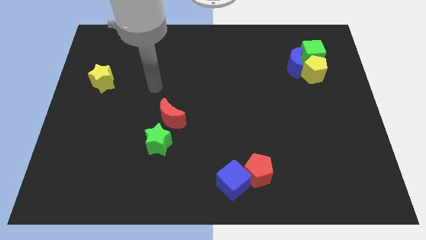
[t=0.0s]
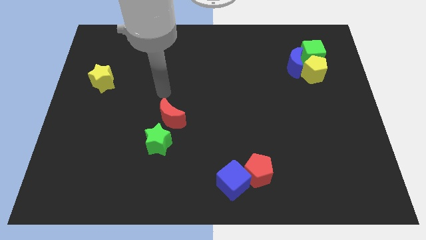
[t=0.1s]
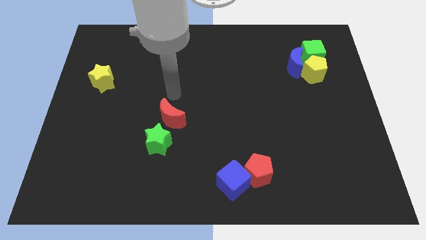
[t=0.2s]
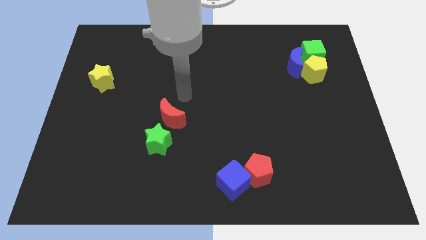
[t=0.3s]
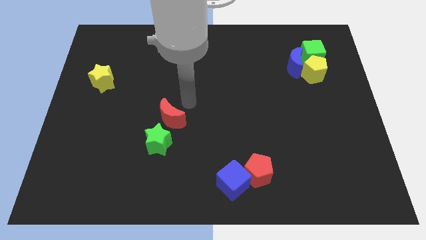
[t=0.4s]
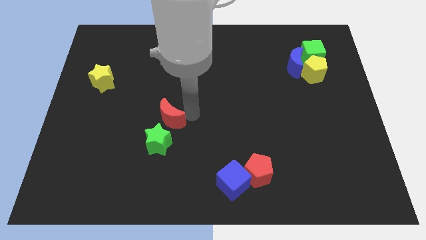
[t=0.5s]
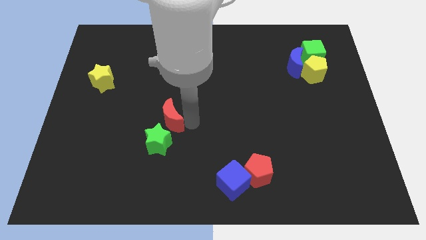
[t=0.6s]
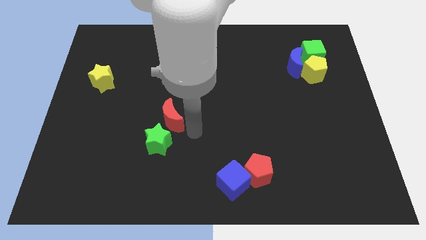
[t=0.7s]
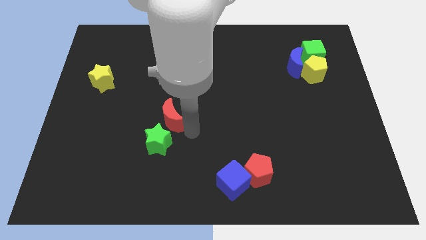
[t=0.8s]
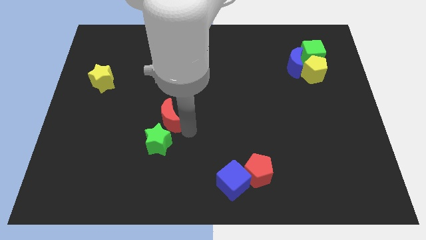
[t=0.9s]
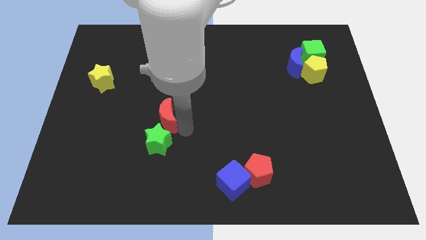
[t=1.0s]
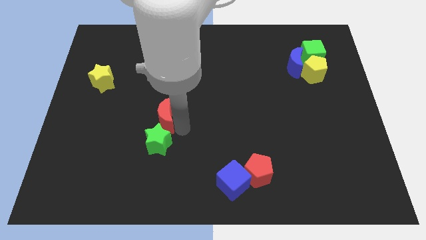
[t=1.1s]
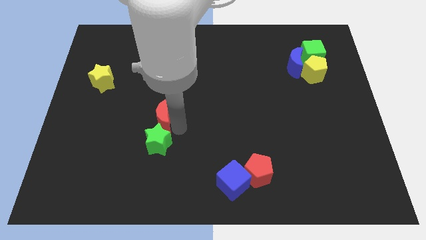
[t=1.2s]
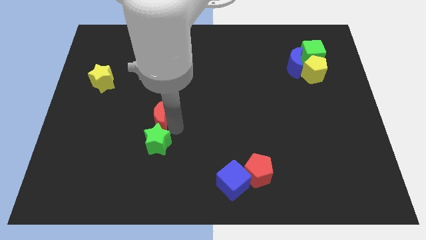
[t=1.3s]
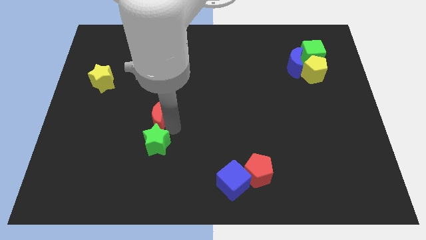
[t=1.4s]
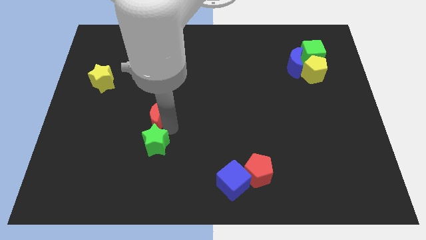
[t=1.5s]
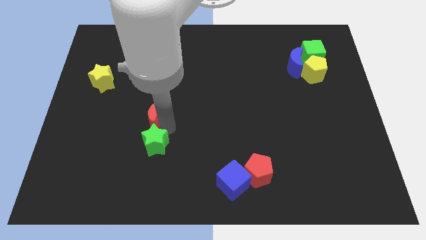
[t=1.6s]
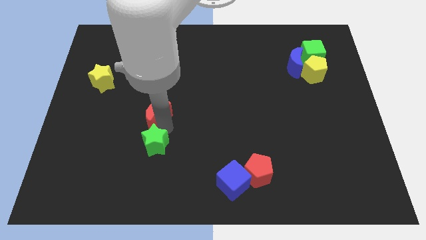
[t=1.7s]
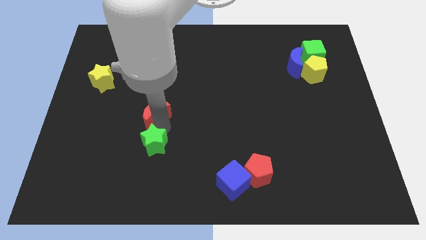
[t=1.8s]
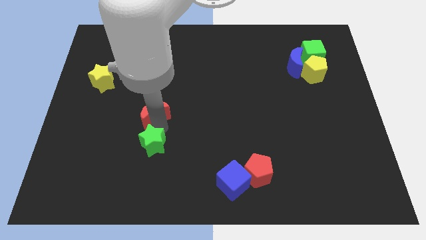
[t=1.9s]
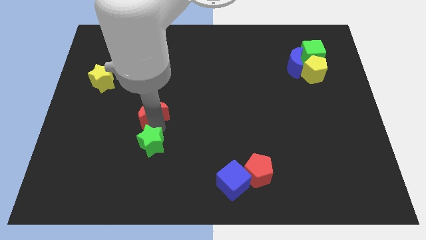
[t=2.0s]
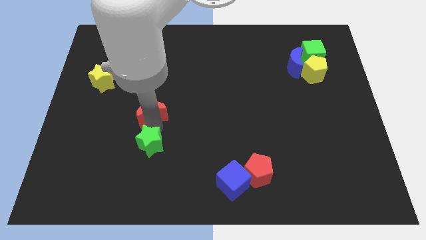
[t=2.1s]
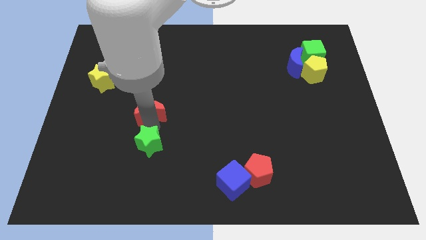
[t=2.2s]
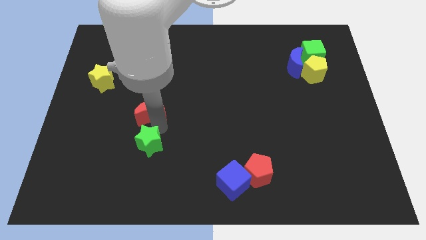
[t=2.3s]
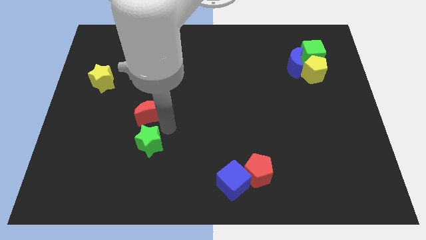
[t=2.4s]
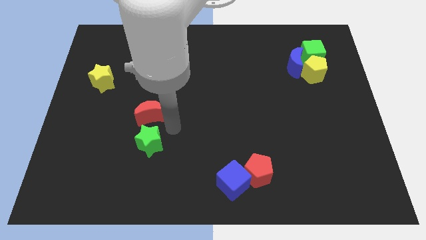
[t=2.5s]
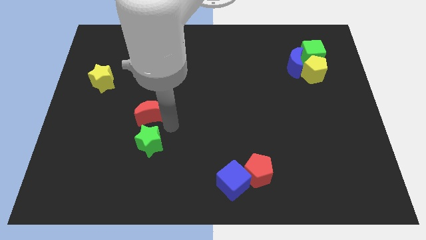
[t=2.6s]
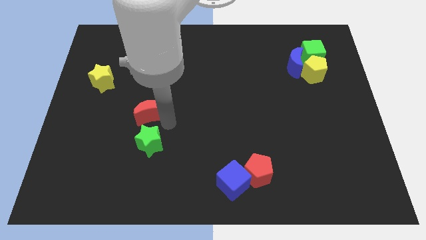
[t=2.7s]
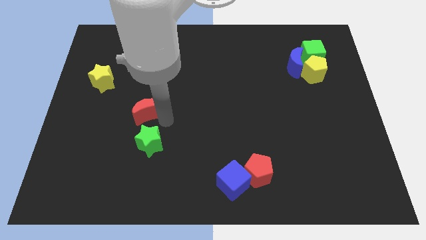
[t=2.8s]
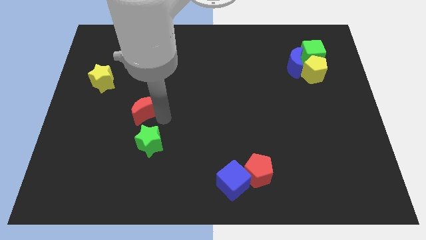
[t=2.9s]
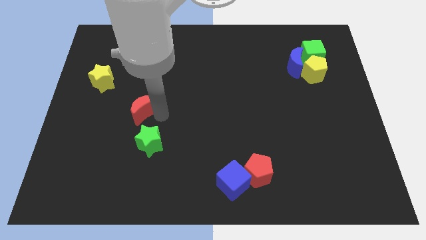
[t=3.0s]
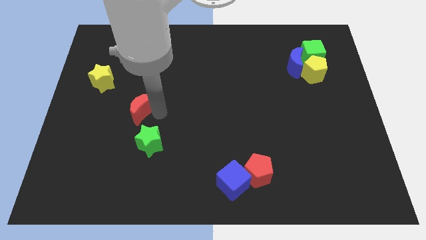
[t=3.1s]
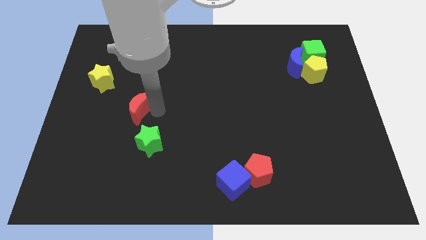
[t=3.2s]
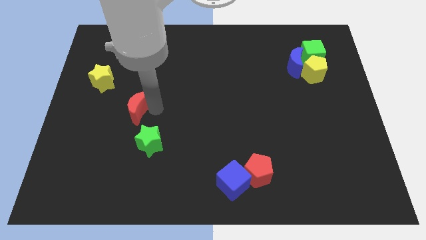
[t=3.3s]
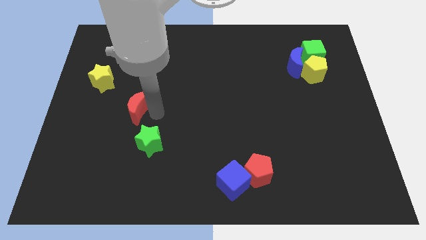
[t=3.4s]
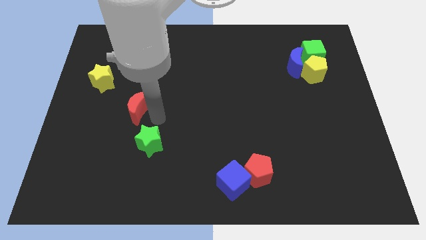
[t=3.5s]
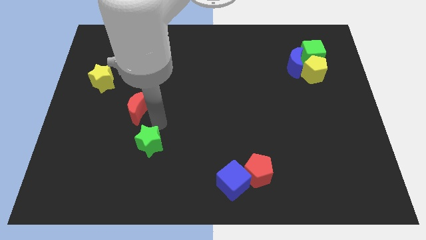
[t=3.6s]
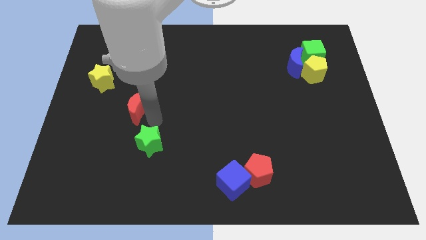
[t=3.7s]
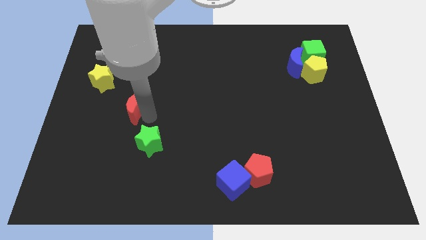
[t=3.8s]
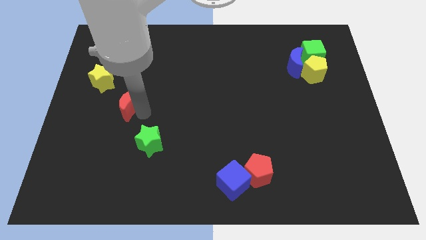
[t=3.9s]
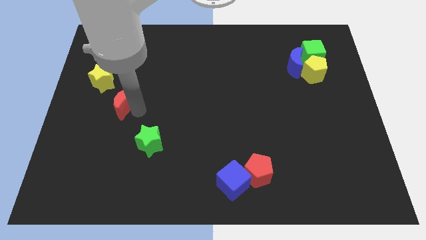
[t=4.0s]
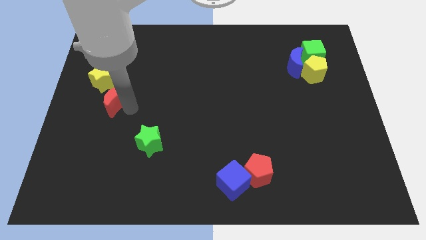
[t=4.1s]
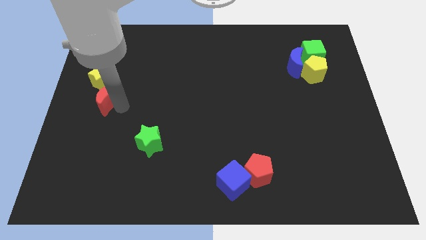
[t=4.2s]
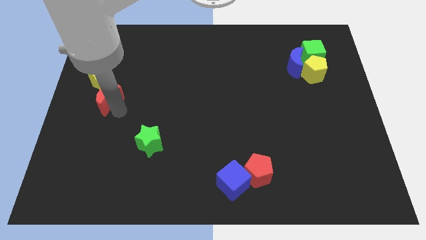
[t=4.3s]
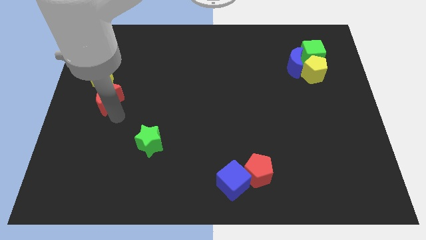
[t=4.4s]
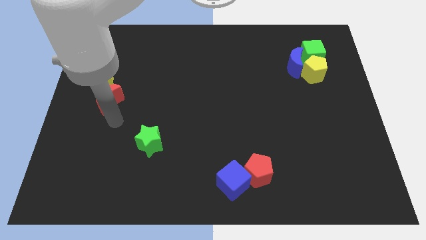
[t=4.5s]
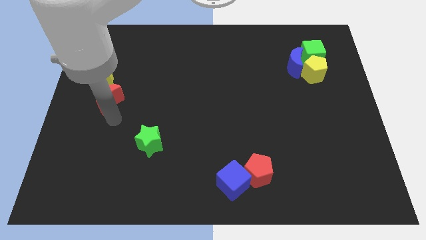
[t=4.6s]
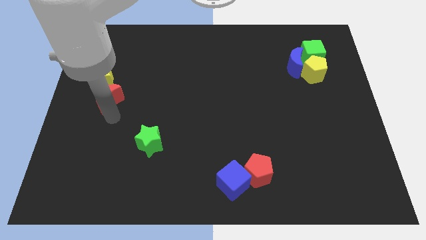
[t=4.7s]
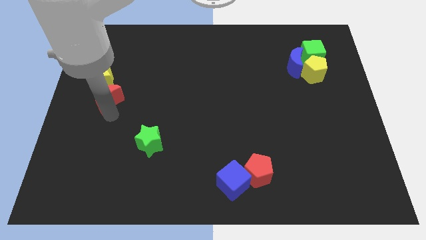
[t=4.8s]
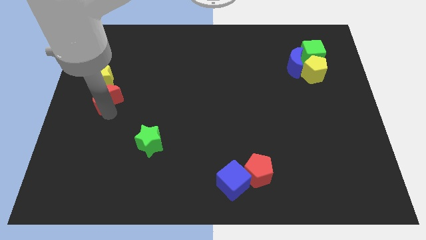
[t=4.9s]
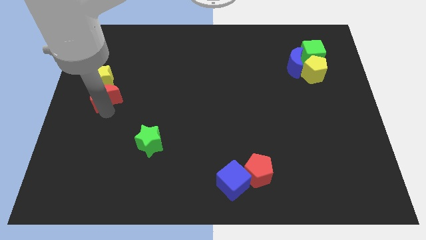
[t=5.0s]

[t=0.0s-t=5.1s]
push the red moon close to the yellow star

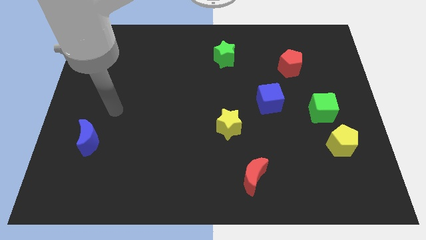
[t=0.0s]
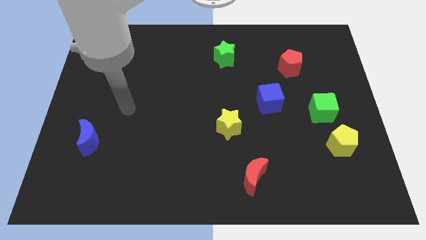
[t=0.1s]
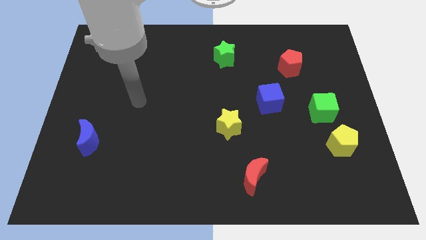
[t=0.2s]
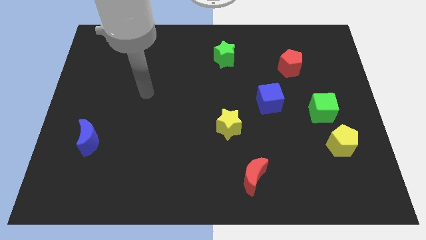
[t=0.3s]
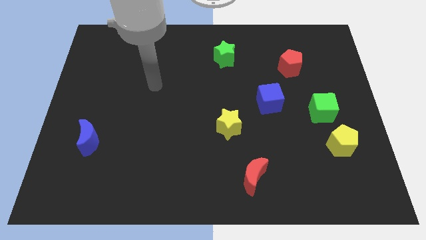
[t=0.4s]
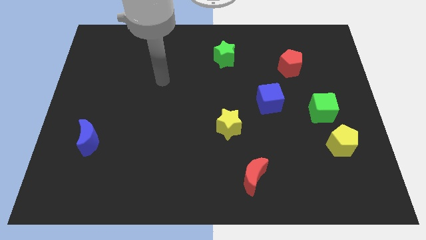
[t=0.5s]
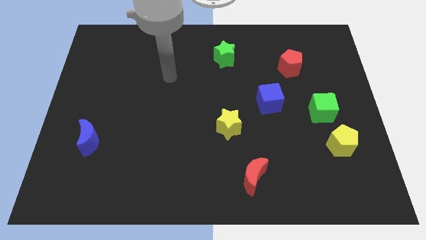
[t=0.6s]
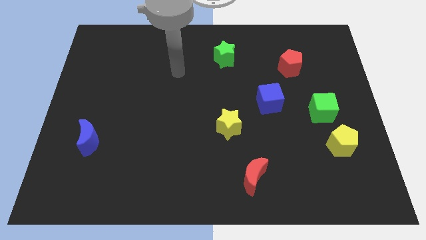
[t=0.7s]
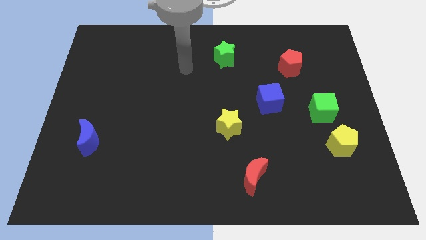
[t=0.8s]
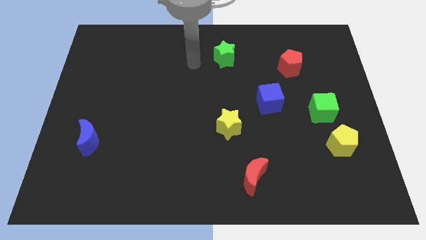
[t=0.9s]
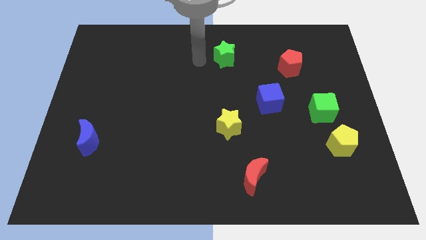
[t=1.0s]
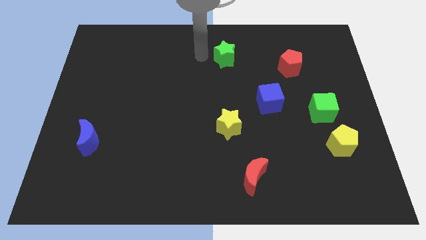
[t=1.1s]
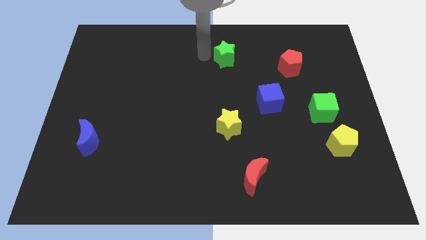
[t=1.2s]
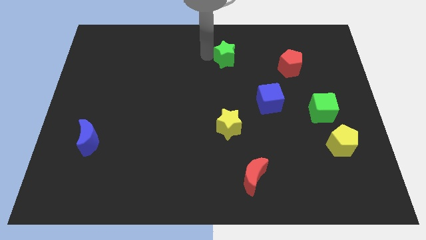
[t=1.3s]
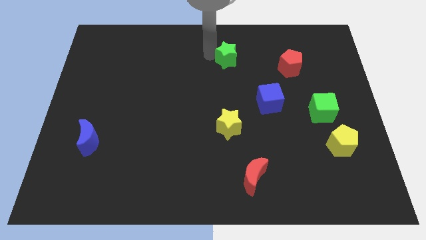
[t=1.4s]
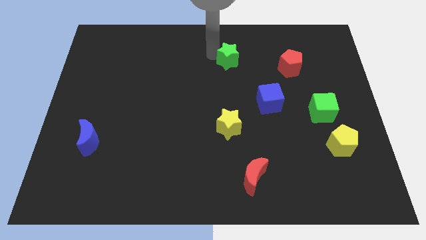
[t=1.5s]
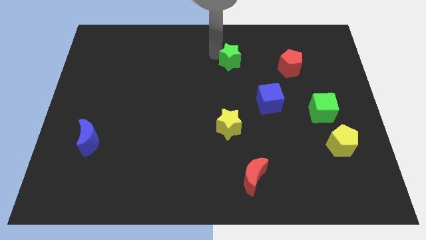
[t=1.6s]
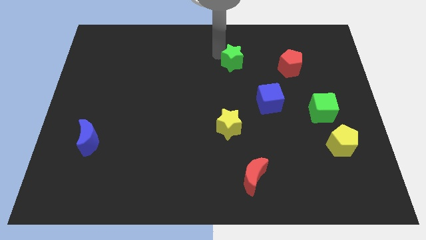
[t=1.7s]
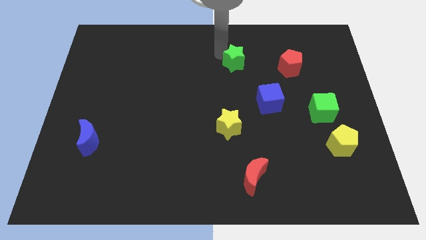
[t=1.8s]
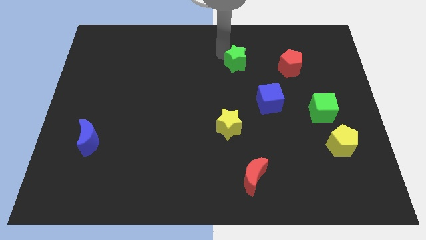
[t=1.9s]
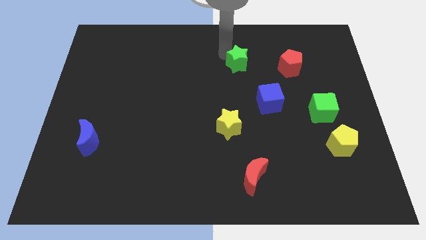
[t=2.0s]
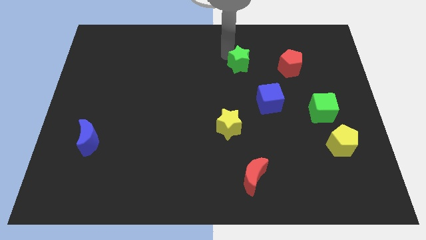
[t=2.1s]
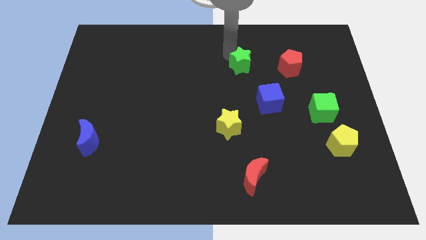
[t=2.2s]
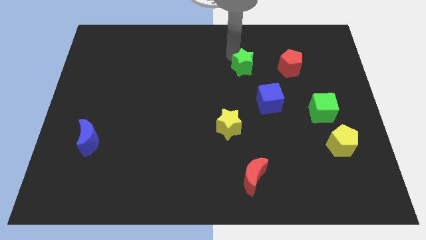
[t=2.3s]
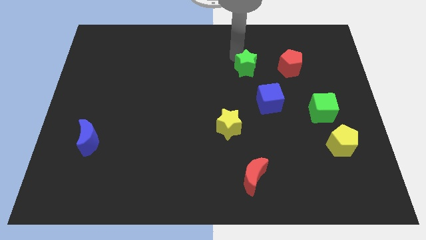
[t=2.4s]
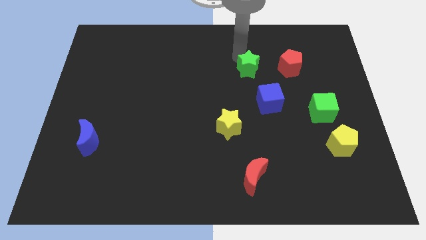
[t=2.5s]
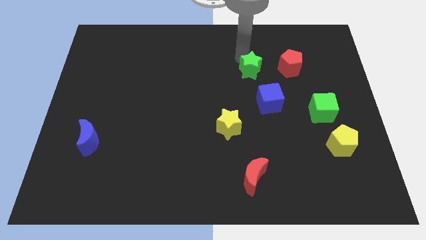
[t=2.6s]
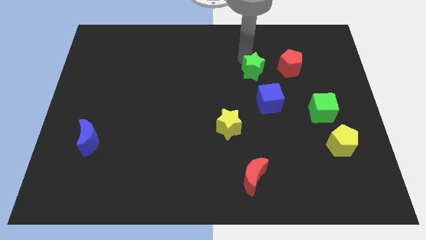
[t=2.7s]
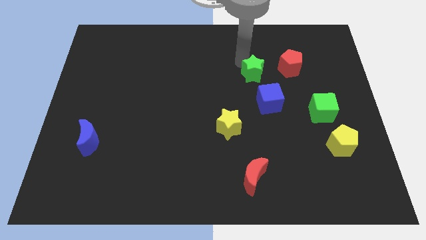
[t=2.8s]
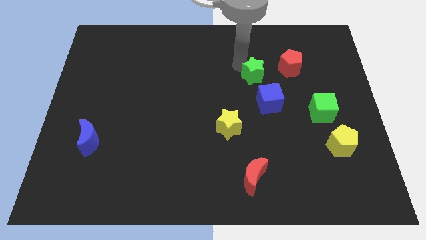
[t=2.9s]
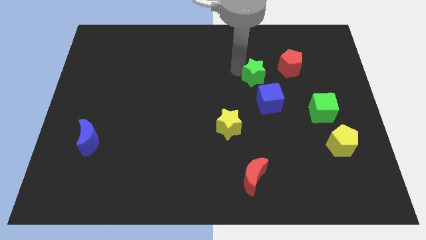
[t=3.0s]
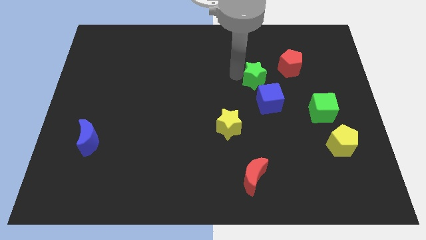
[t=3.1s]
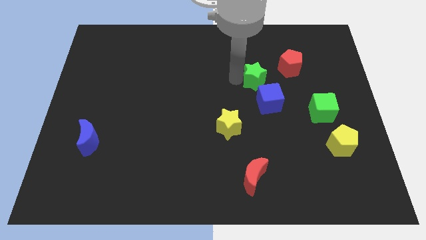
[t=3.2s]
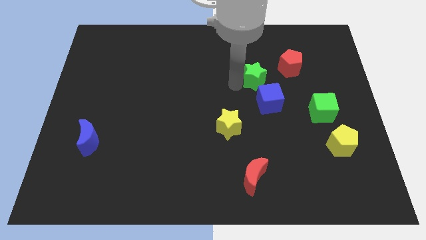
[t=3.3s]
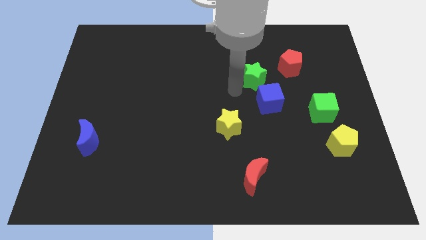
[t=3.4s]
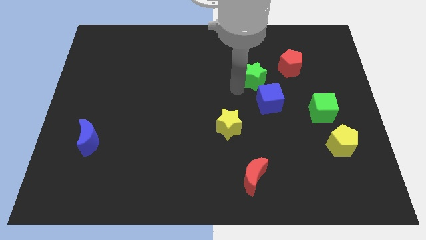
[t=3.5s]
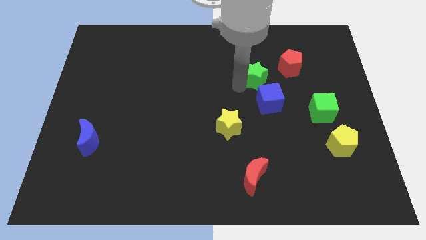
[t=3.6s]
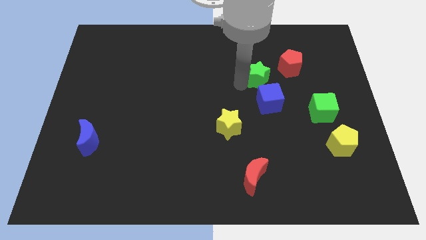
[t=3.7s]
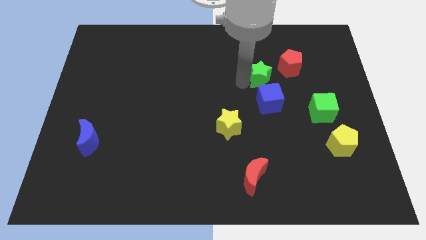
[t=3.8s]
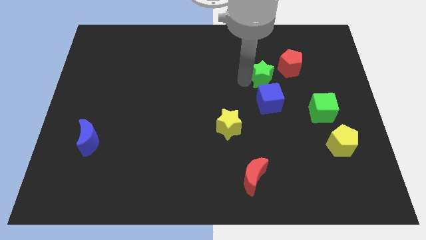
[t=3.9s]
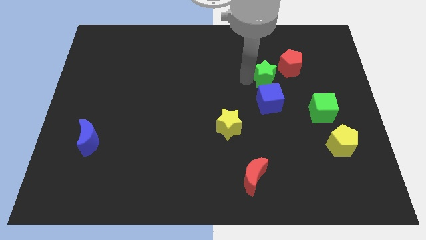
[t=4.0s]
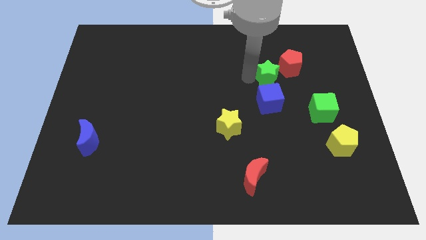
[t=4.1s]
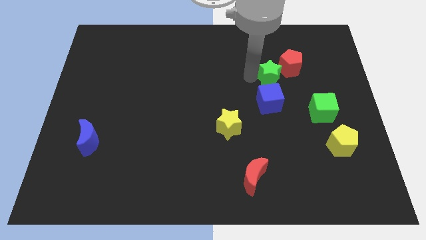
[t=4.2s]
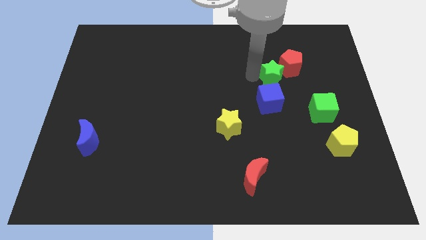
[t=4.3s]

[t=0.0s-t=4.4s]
put the green star to the red pentagon
